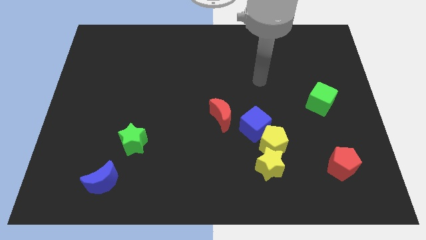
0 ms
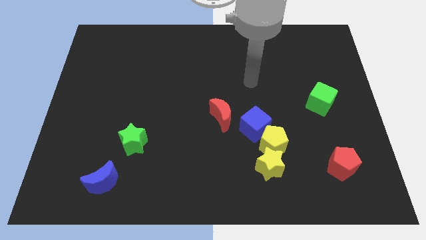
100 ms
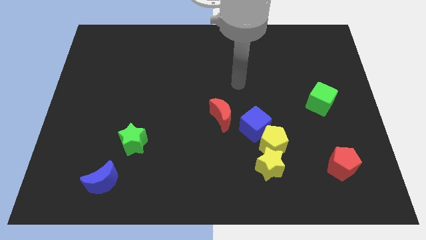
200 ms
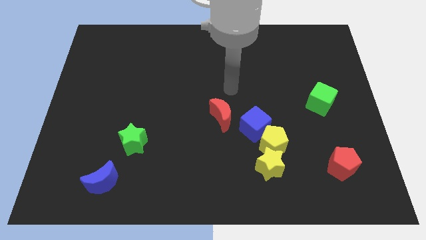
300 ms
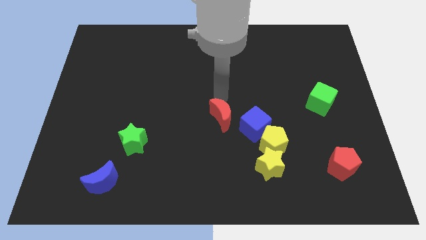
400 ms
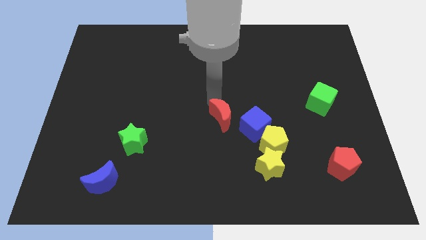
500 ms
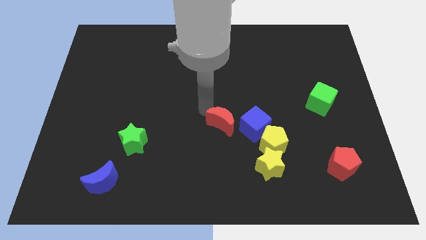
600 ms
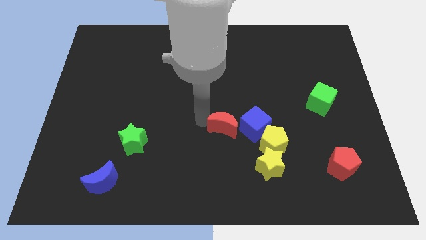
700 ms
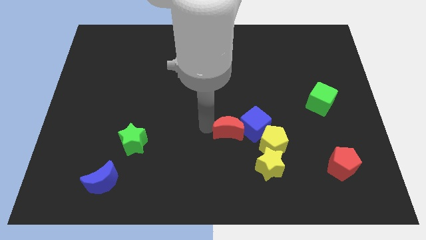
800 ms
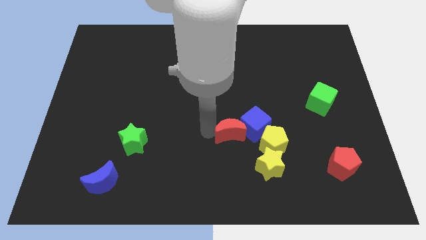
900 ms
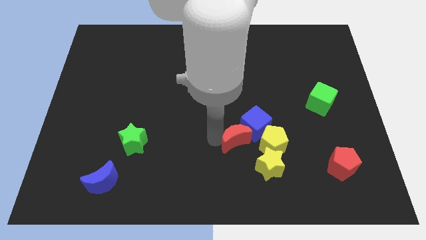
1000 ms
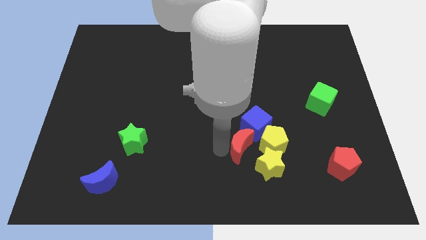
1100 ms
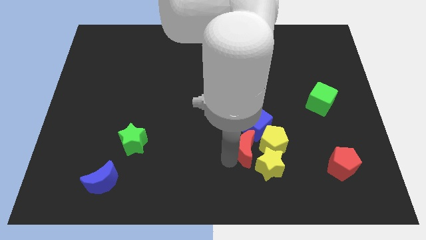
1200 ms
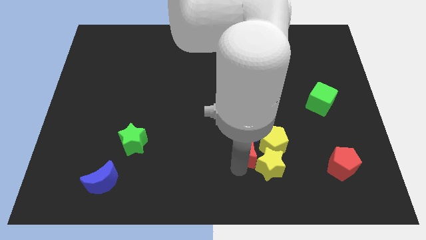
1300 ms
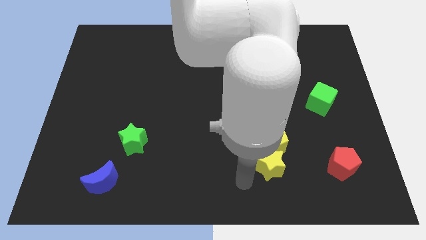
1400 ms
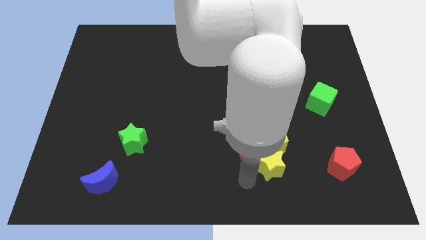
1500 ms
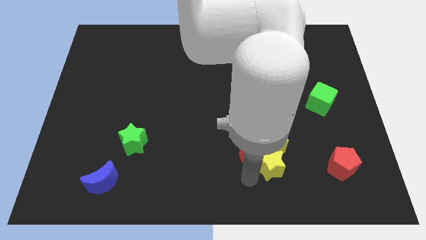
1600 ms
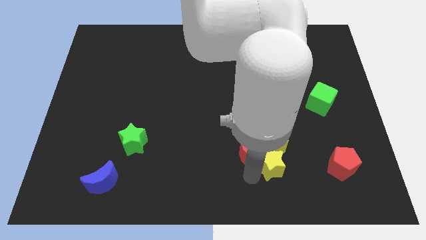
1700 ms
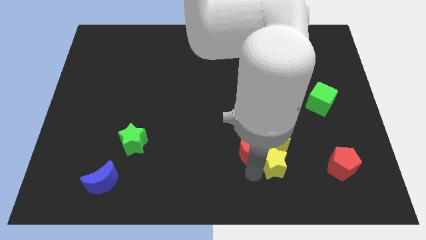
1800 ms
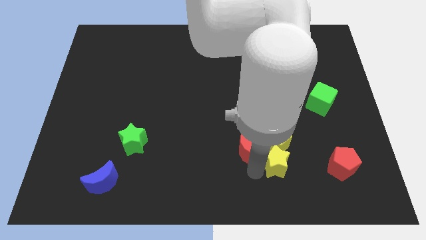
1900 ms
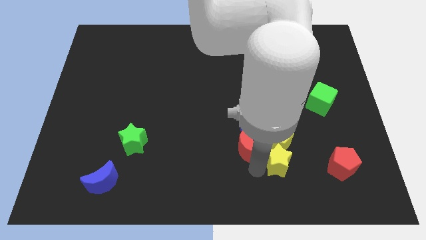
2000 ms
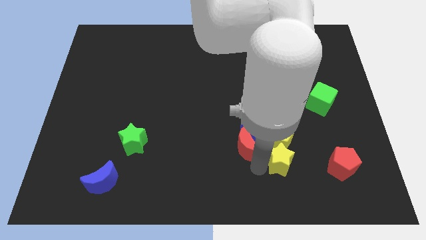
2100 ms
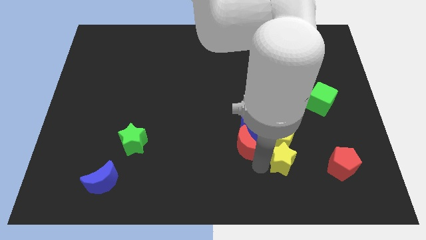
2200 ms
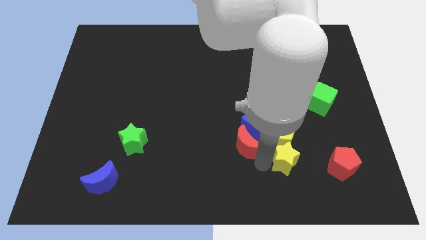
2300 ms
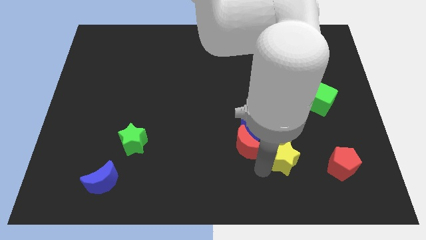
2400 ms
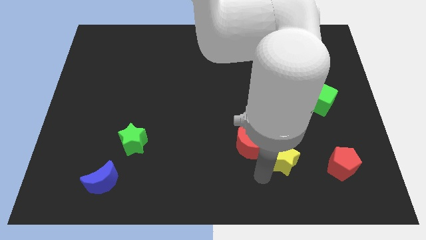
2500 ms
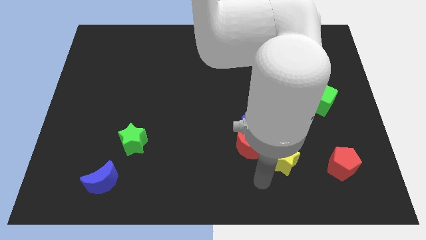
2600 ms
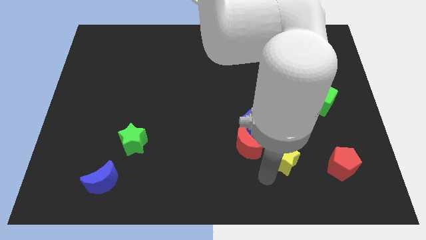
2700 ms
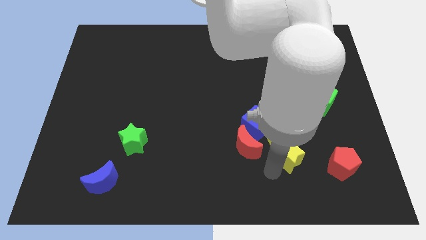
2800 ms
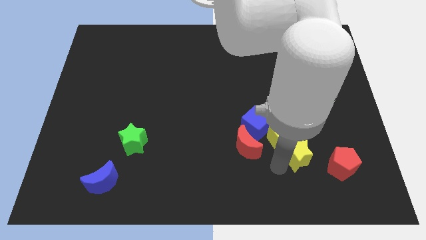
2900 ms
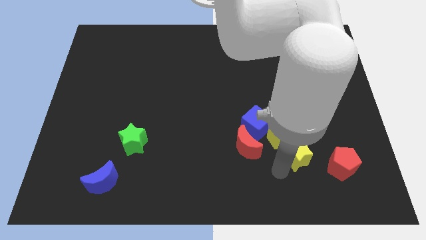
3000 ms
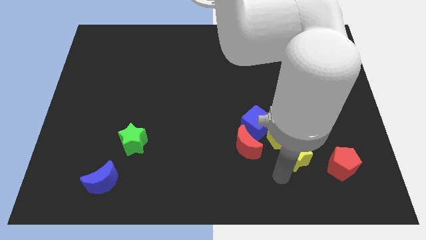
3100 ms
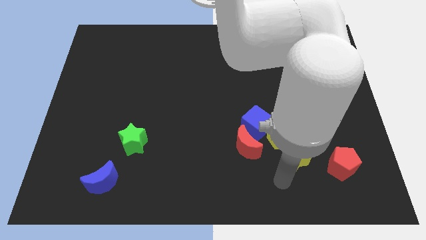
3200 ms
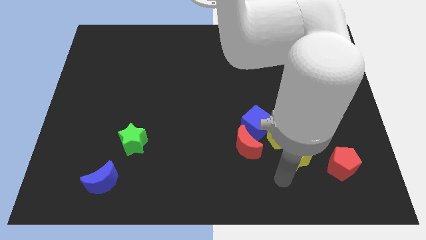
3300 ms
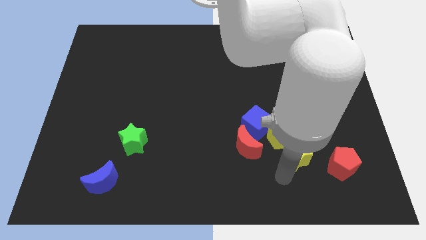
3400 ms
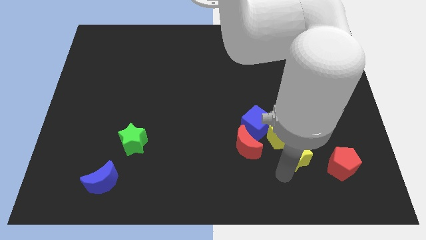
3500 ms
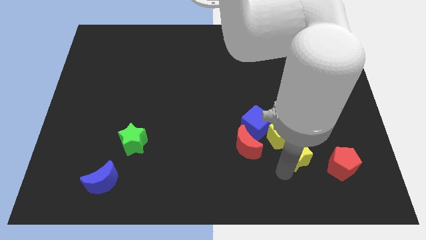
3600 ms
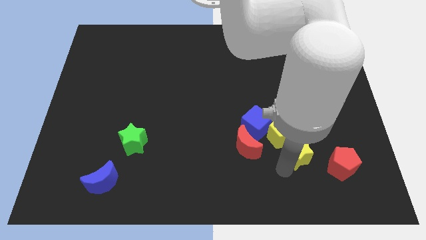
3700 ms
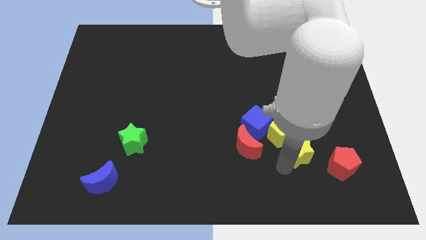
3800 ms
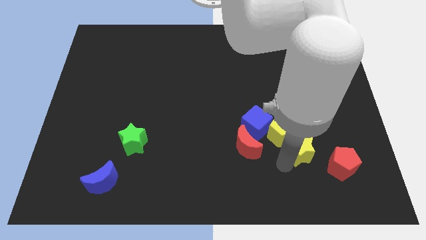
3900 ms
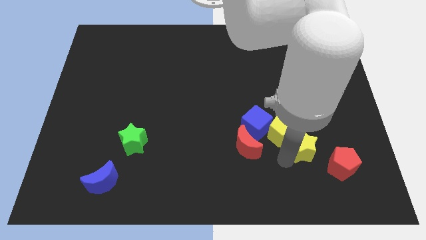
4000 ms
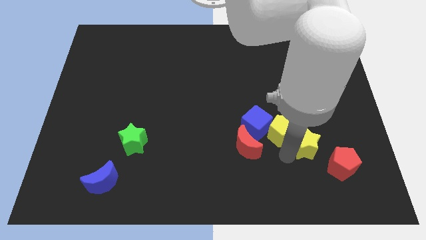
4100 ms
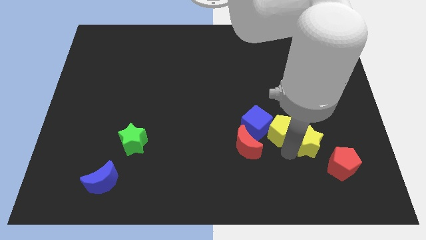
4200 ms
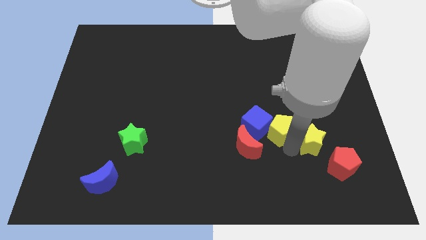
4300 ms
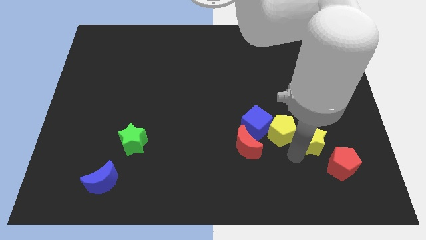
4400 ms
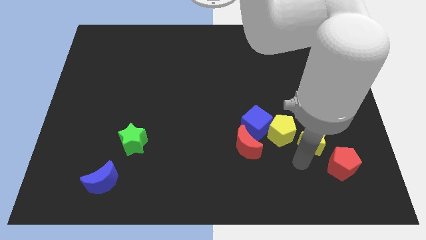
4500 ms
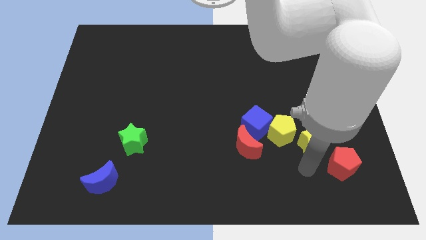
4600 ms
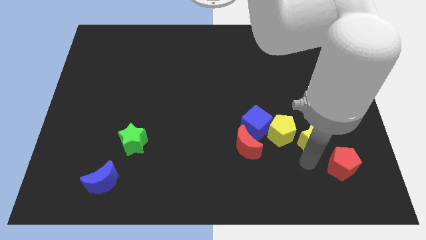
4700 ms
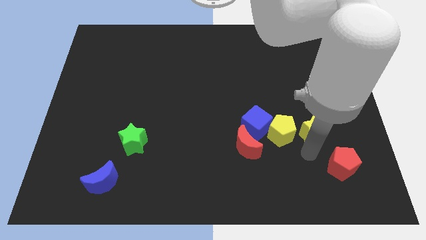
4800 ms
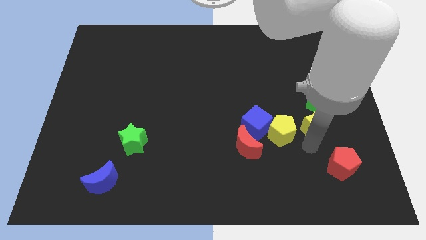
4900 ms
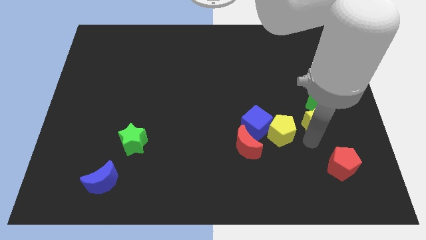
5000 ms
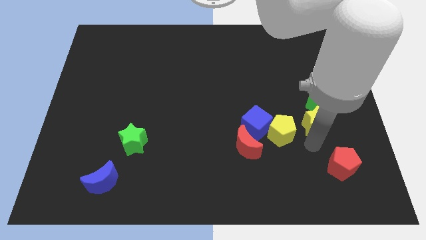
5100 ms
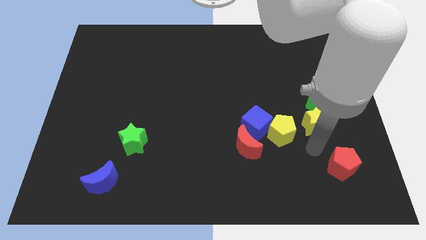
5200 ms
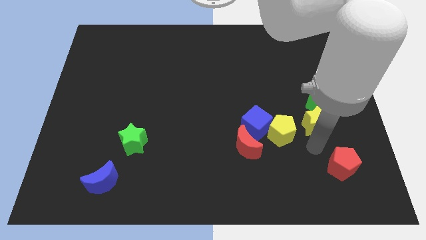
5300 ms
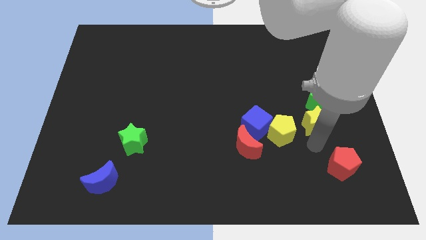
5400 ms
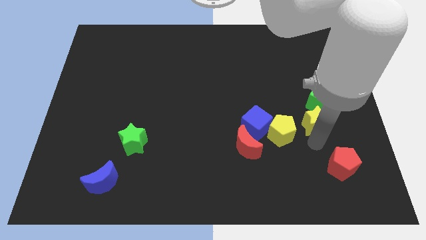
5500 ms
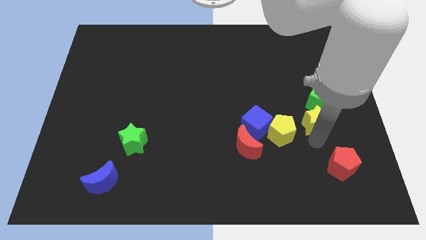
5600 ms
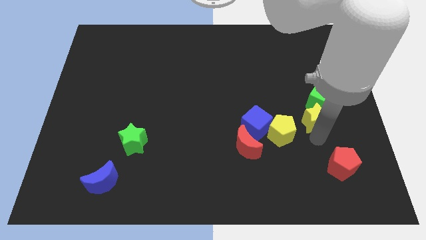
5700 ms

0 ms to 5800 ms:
slide the yellow star towards the green cube

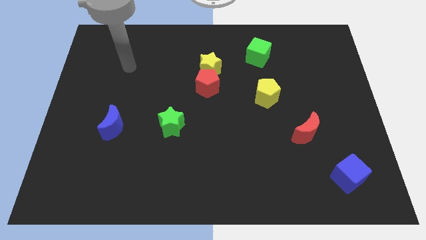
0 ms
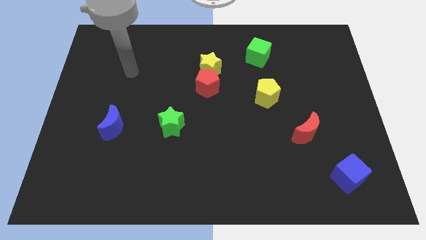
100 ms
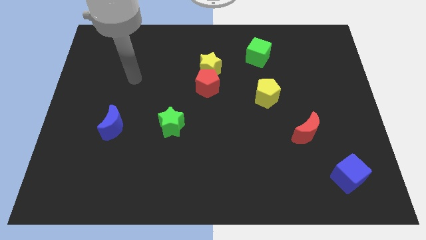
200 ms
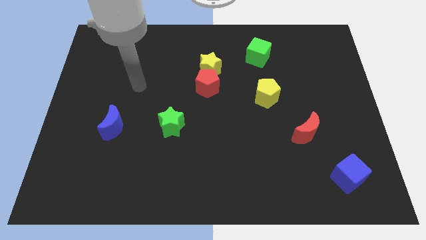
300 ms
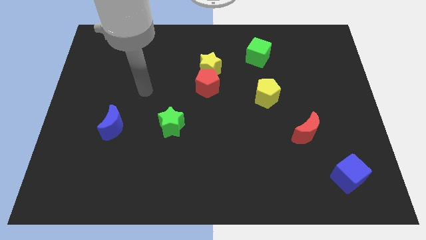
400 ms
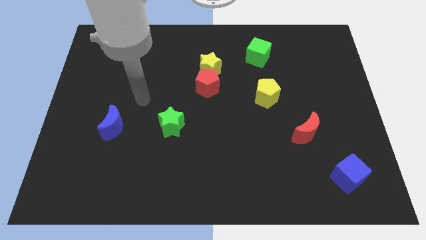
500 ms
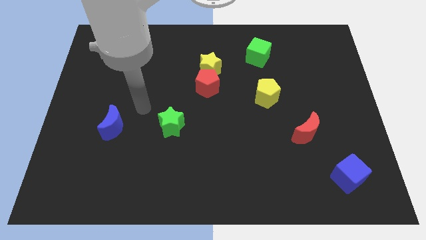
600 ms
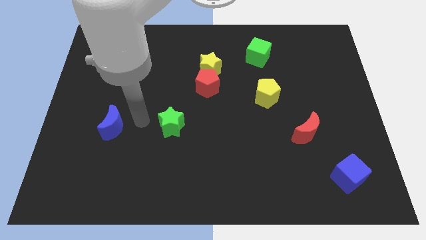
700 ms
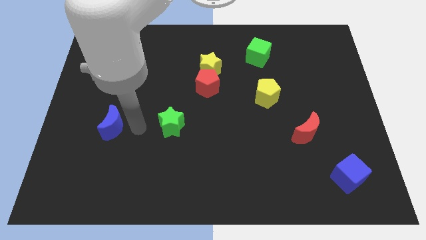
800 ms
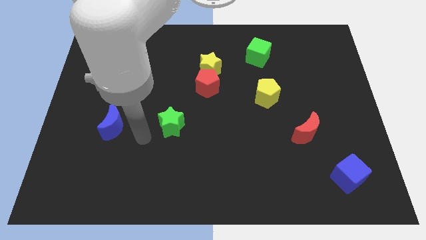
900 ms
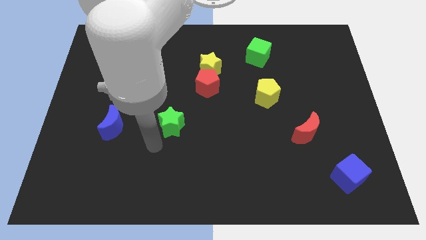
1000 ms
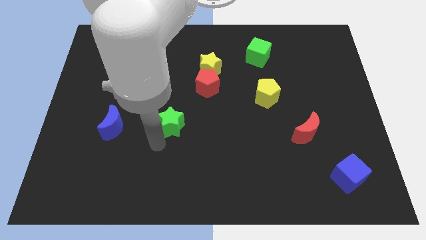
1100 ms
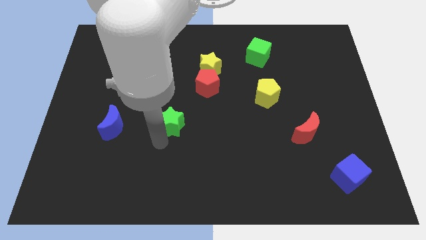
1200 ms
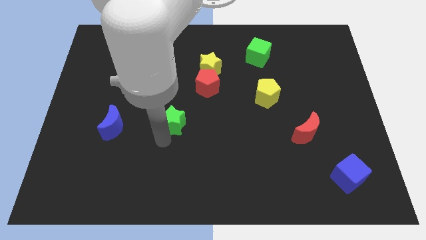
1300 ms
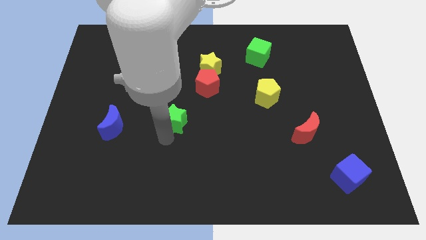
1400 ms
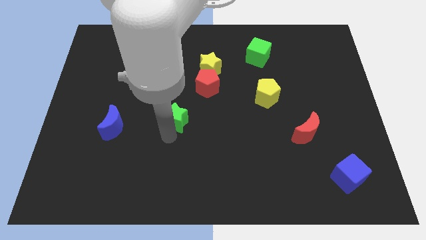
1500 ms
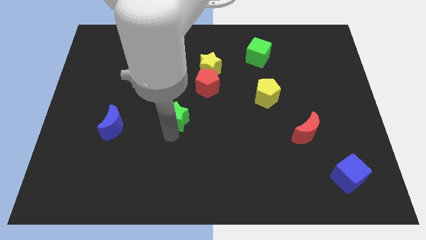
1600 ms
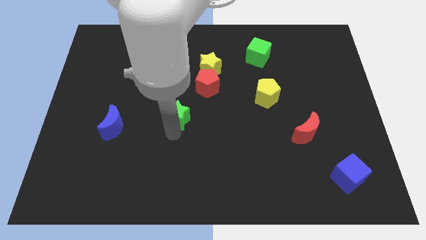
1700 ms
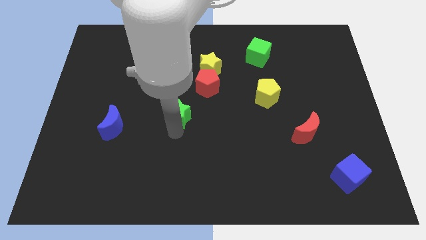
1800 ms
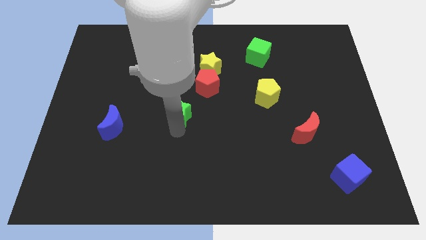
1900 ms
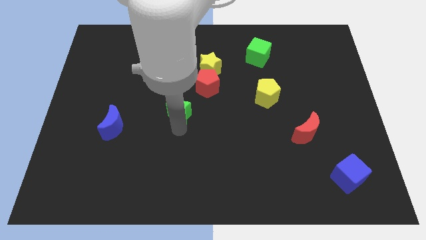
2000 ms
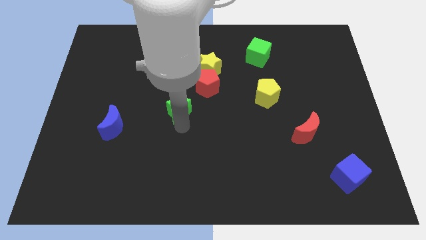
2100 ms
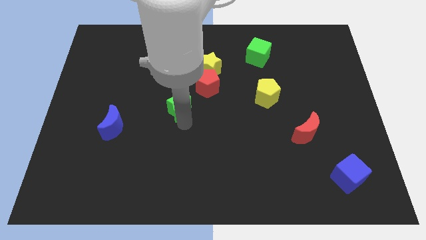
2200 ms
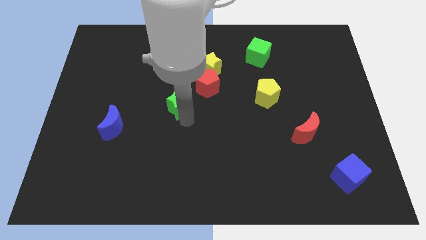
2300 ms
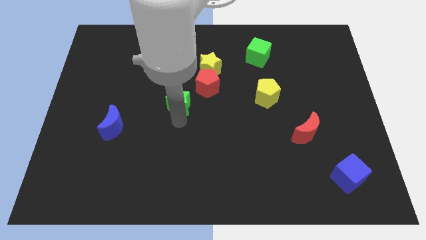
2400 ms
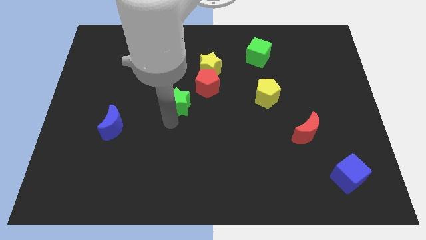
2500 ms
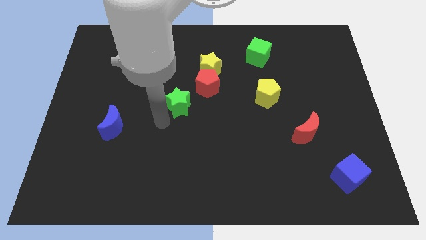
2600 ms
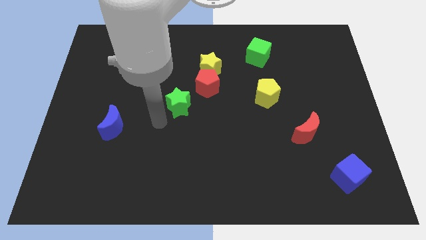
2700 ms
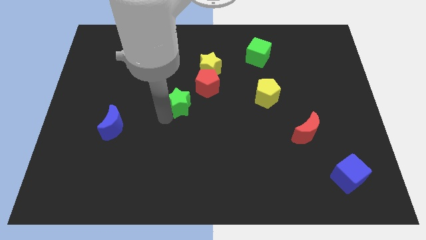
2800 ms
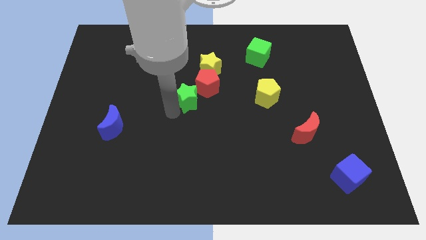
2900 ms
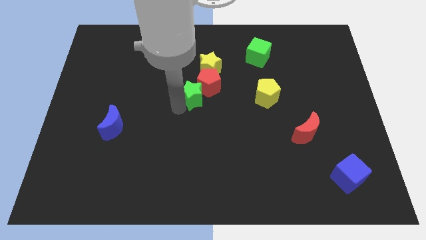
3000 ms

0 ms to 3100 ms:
put the green star to the red pentagon
